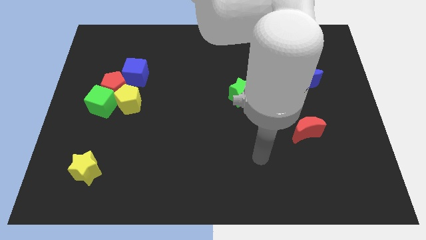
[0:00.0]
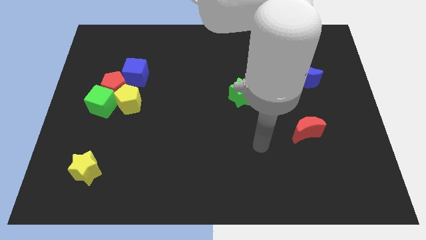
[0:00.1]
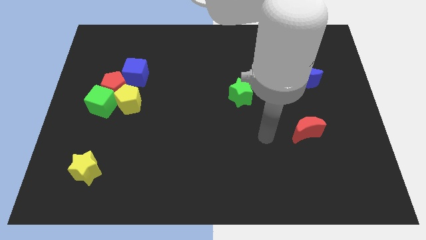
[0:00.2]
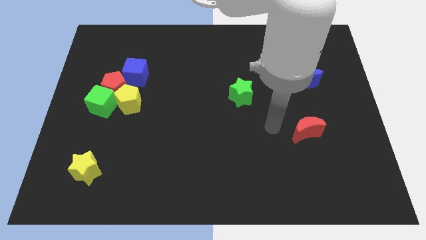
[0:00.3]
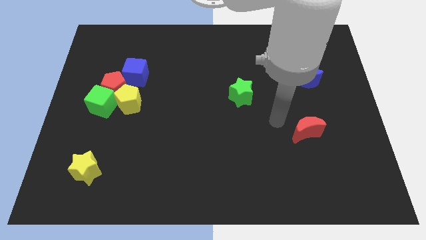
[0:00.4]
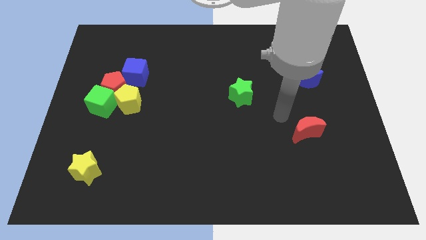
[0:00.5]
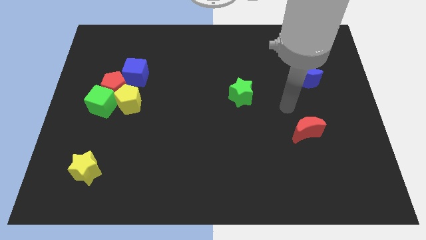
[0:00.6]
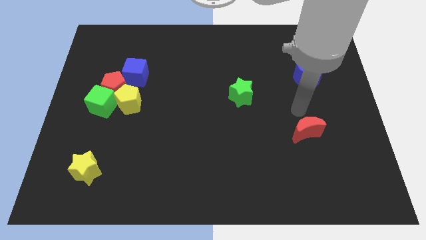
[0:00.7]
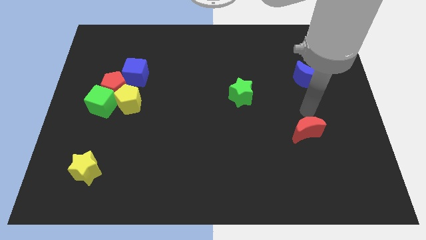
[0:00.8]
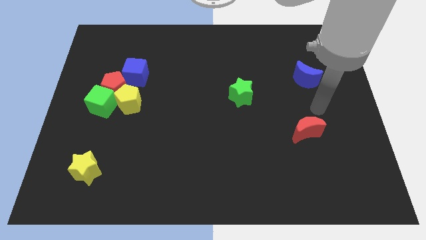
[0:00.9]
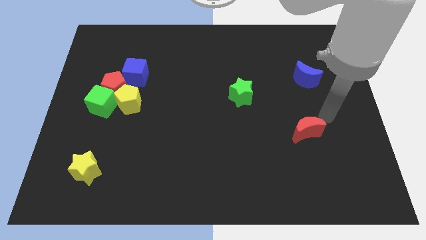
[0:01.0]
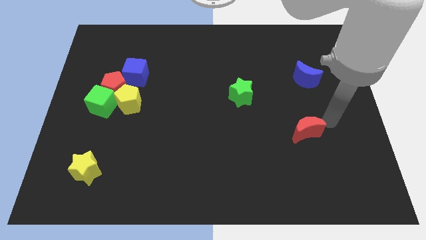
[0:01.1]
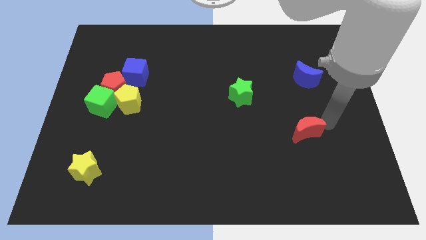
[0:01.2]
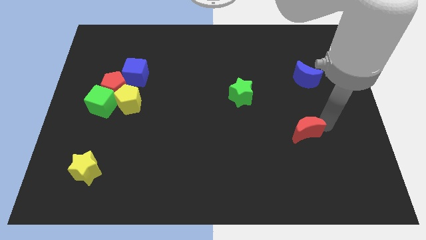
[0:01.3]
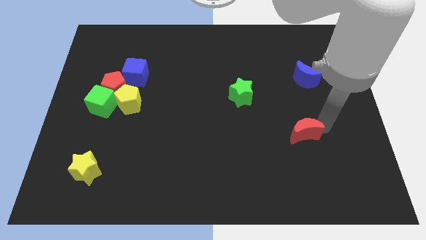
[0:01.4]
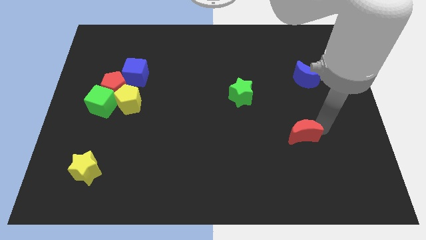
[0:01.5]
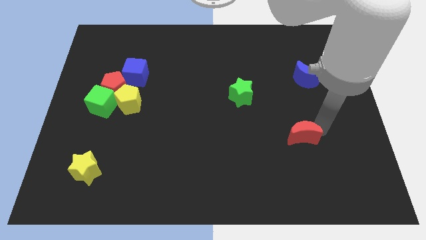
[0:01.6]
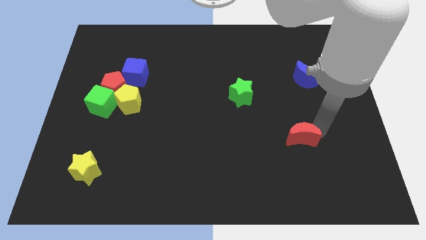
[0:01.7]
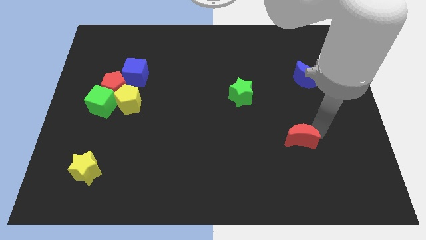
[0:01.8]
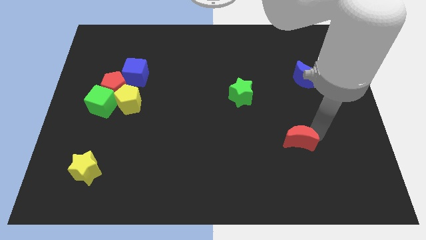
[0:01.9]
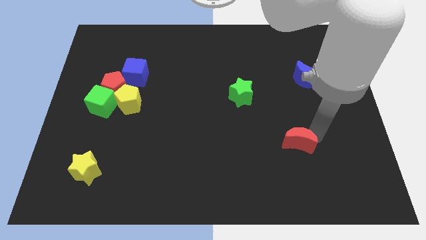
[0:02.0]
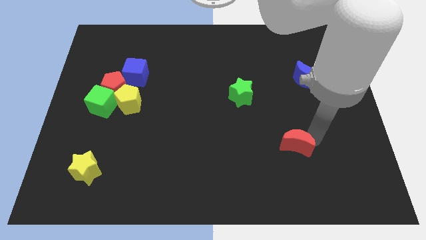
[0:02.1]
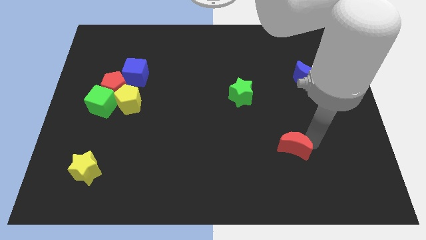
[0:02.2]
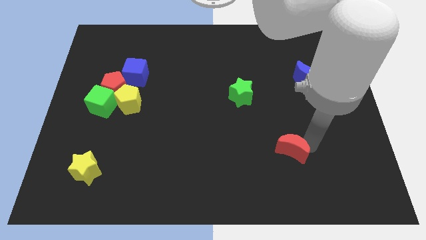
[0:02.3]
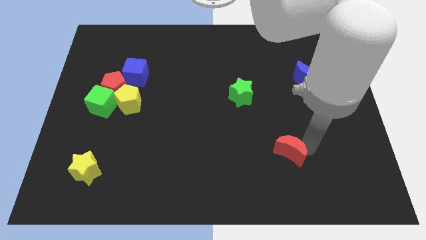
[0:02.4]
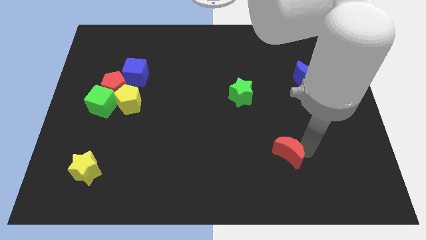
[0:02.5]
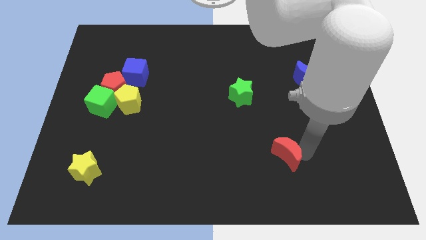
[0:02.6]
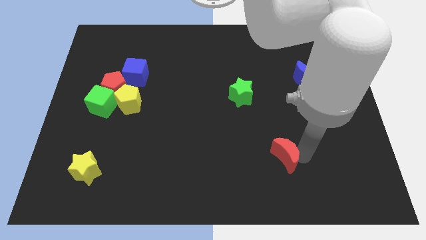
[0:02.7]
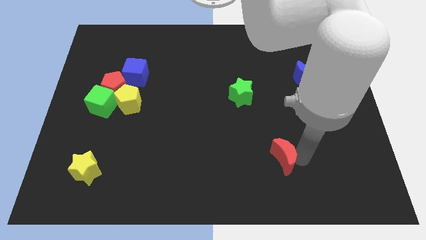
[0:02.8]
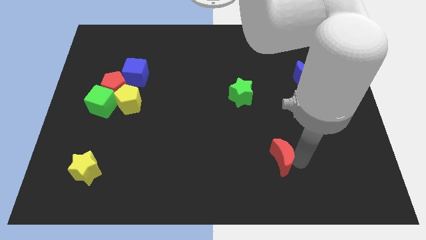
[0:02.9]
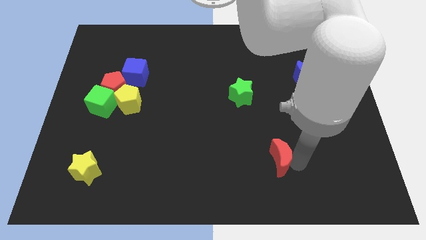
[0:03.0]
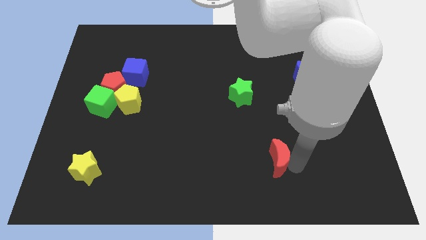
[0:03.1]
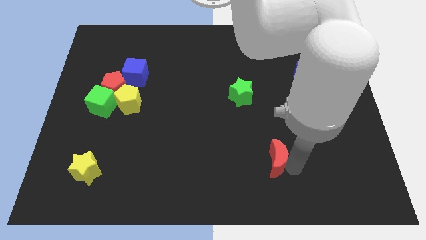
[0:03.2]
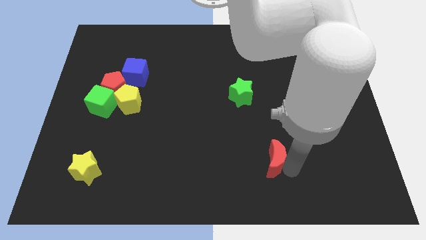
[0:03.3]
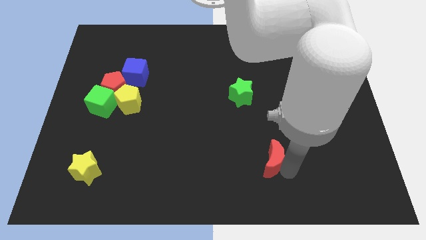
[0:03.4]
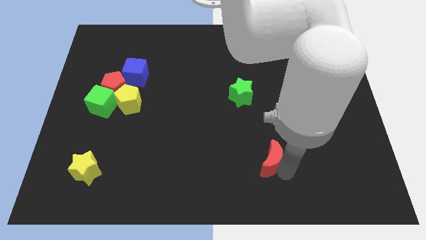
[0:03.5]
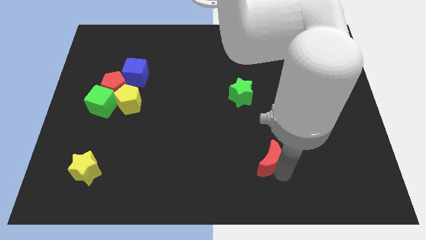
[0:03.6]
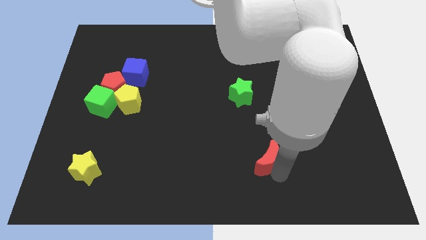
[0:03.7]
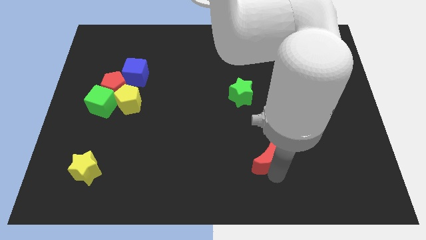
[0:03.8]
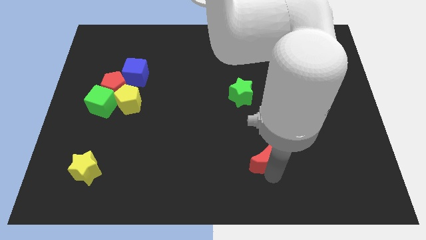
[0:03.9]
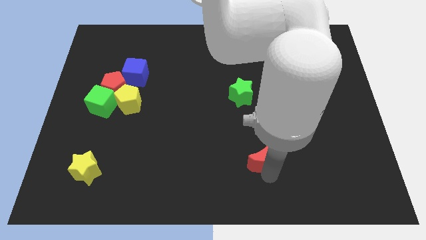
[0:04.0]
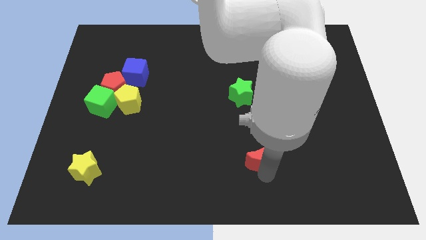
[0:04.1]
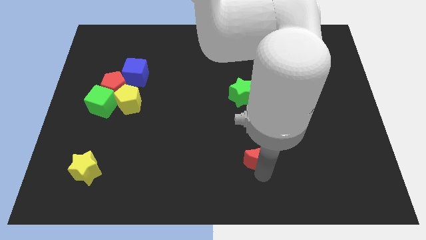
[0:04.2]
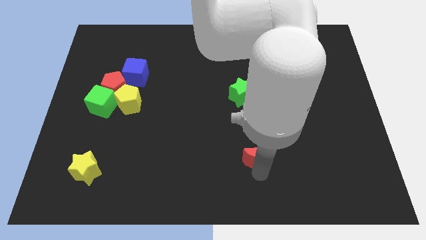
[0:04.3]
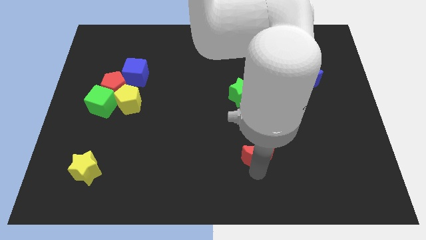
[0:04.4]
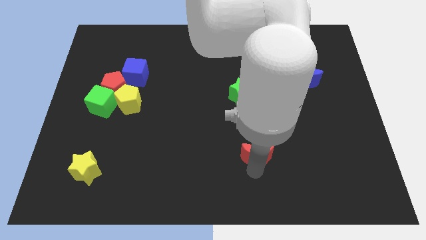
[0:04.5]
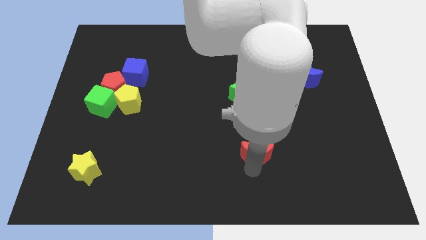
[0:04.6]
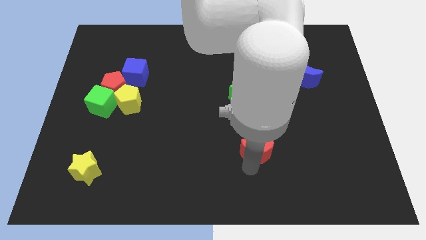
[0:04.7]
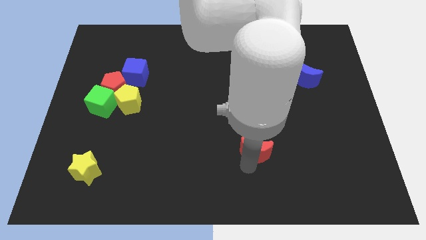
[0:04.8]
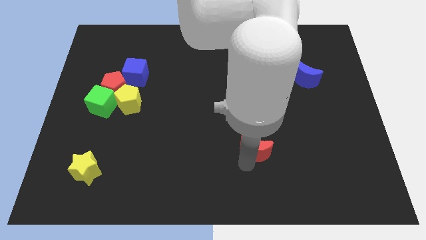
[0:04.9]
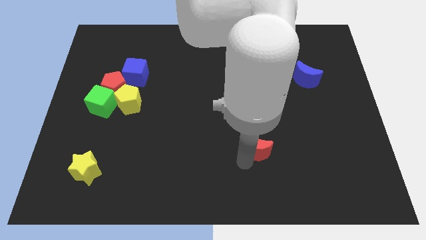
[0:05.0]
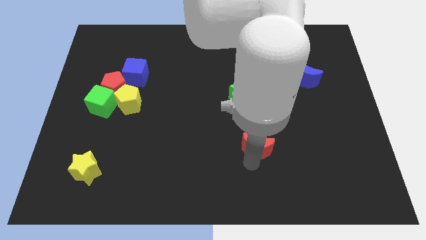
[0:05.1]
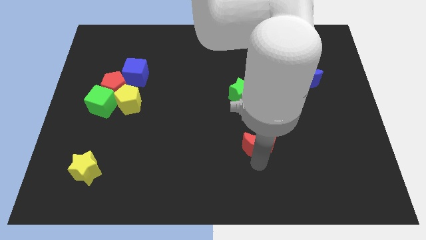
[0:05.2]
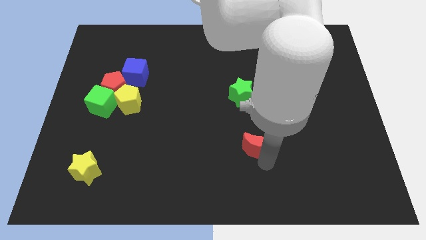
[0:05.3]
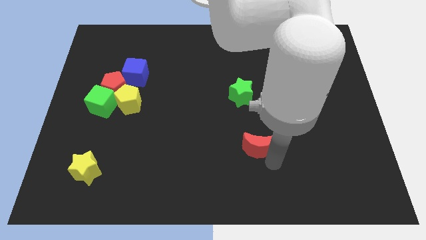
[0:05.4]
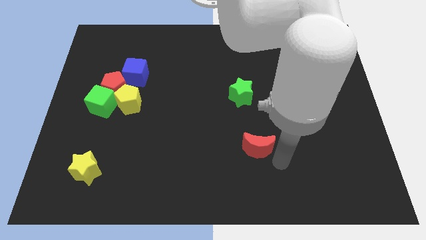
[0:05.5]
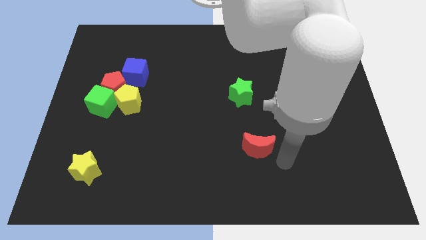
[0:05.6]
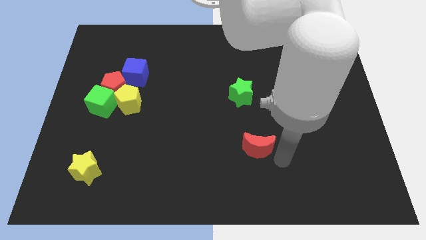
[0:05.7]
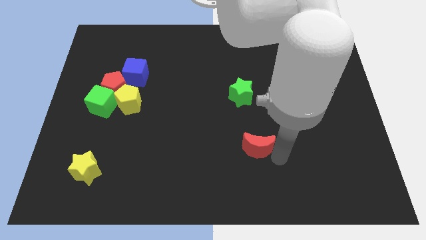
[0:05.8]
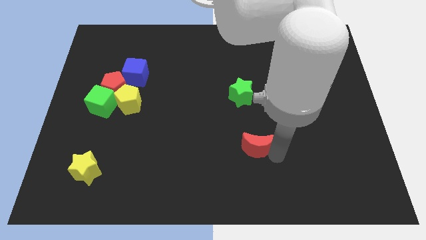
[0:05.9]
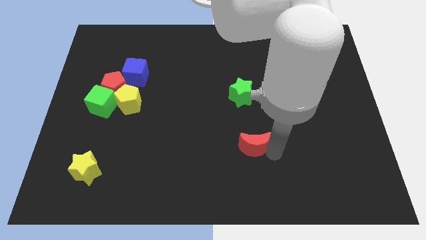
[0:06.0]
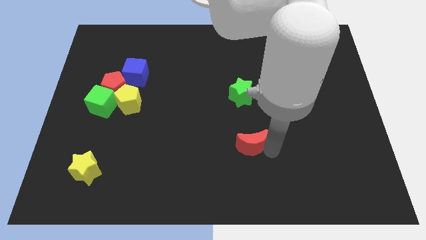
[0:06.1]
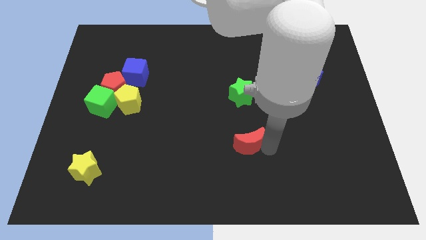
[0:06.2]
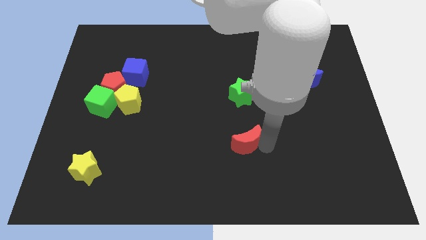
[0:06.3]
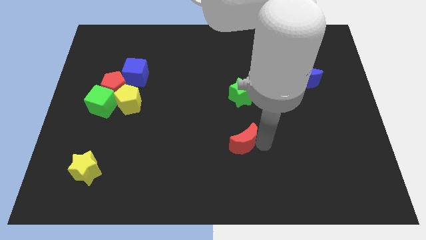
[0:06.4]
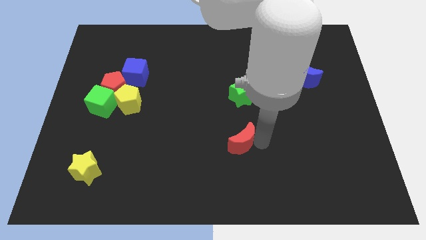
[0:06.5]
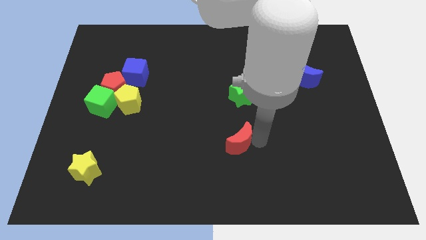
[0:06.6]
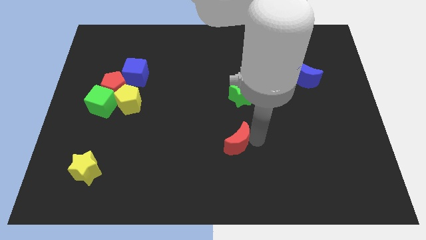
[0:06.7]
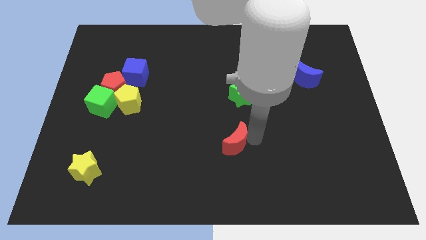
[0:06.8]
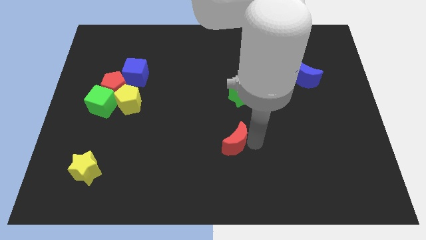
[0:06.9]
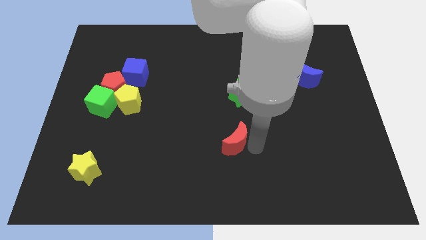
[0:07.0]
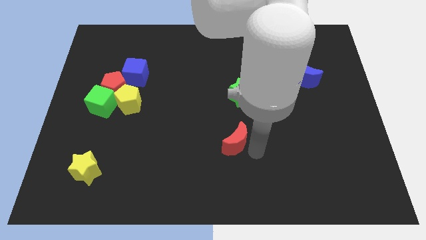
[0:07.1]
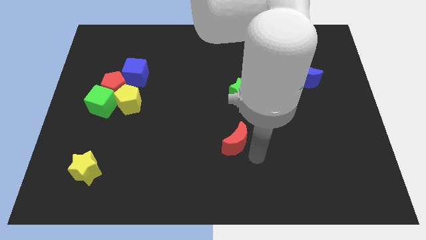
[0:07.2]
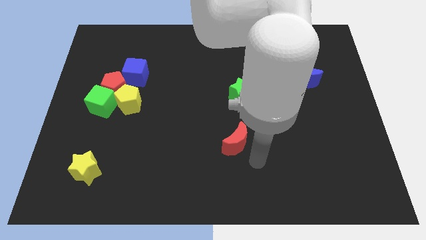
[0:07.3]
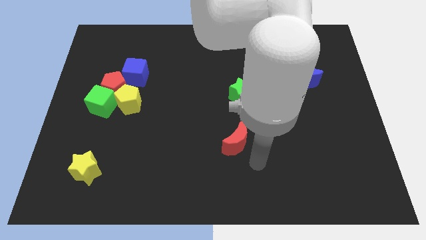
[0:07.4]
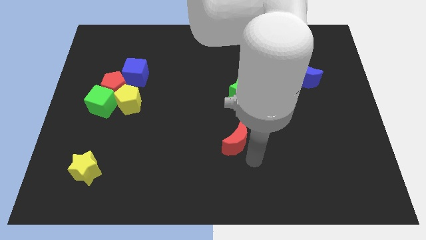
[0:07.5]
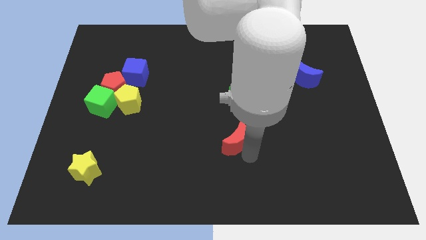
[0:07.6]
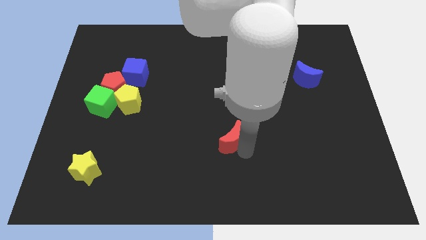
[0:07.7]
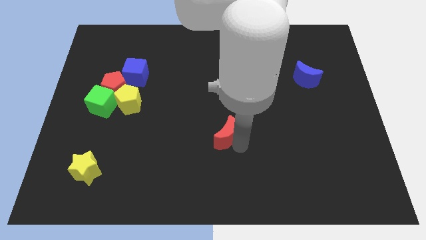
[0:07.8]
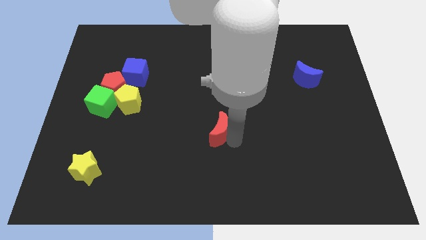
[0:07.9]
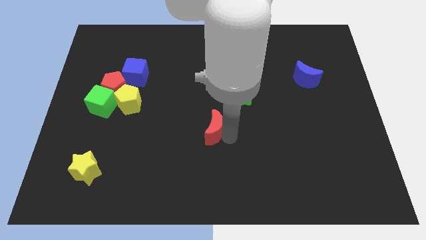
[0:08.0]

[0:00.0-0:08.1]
push the red moon to the left
